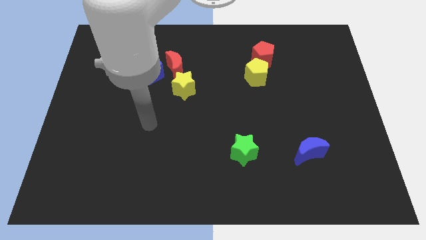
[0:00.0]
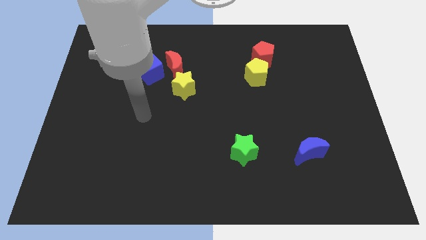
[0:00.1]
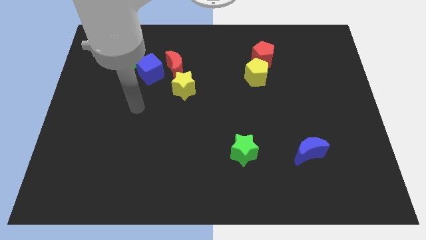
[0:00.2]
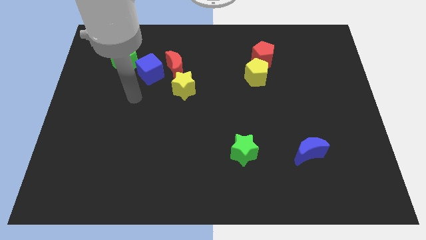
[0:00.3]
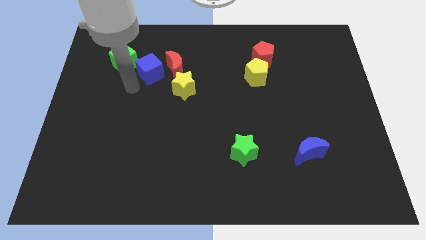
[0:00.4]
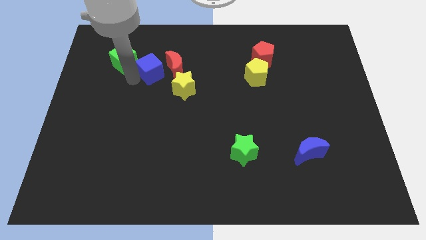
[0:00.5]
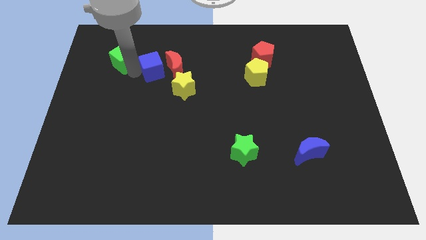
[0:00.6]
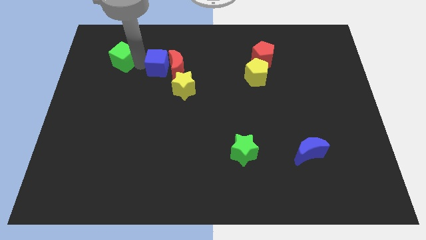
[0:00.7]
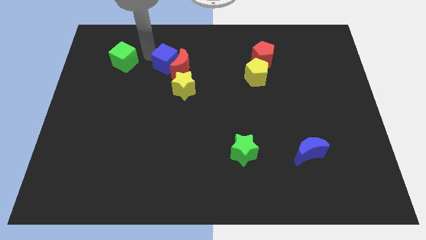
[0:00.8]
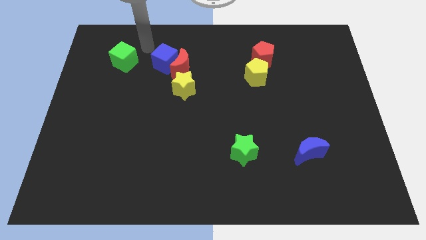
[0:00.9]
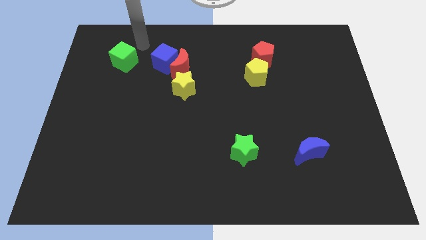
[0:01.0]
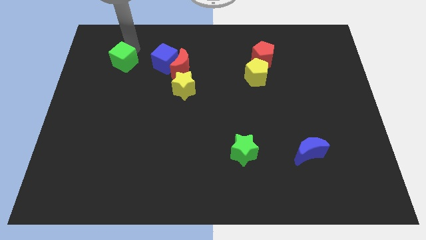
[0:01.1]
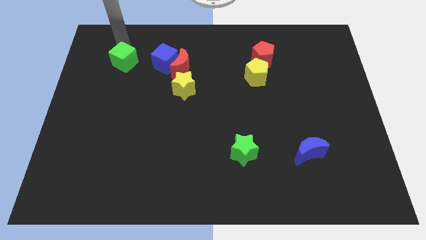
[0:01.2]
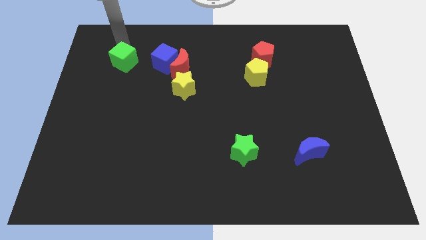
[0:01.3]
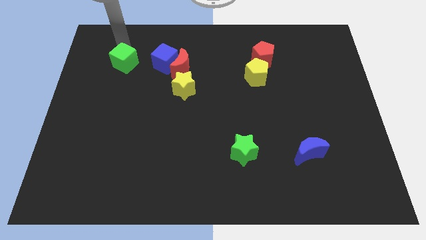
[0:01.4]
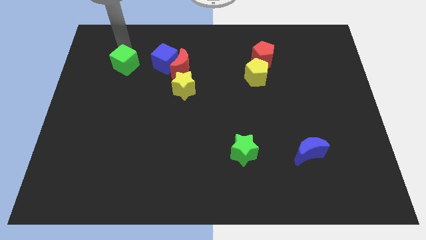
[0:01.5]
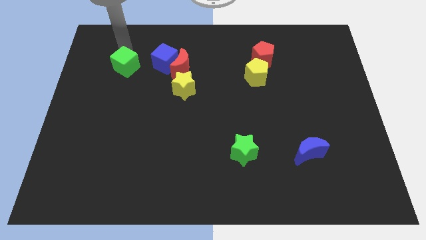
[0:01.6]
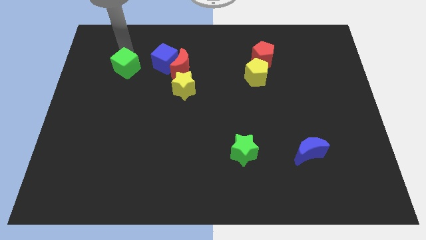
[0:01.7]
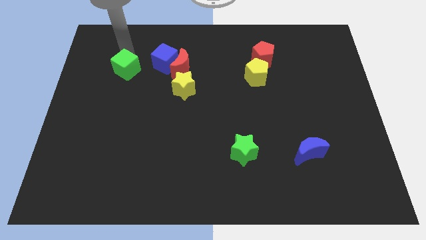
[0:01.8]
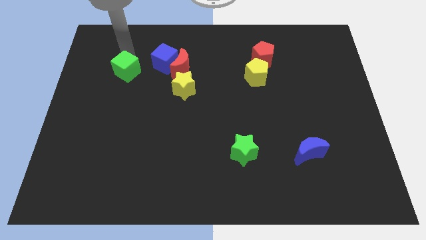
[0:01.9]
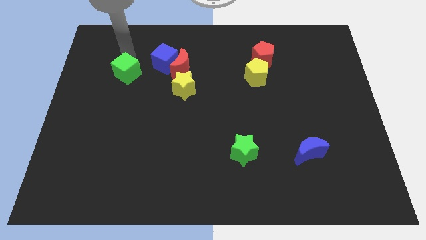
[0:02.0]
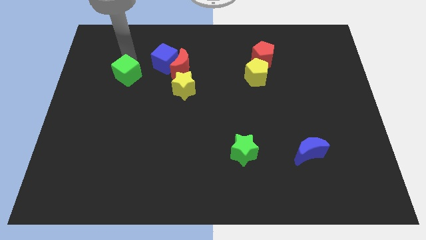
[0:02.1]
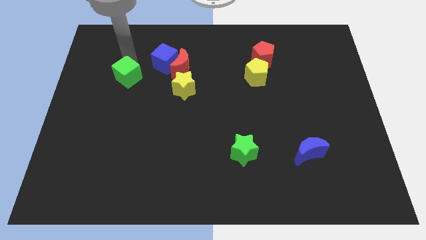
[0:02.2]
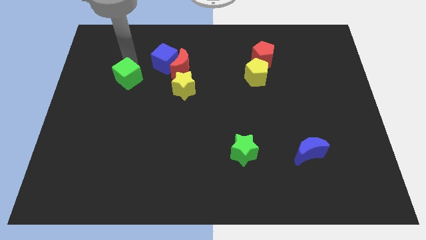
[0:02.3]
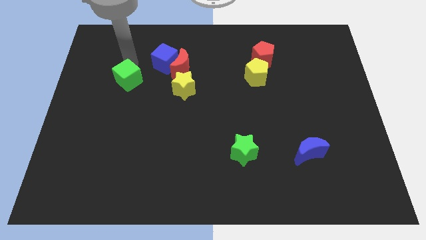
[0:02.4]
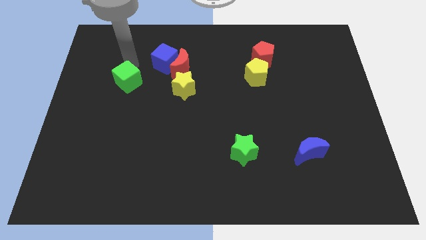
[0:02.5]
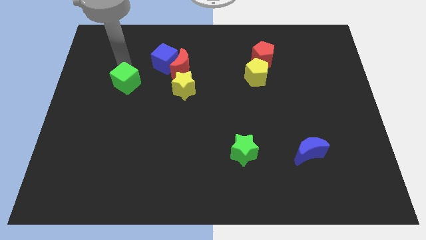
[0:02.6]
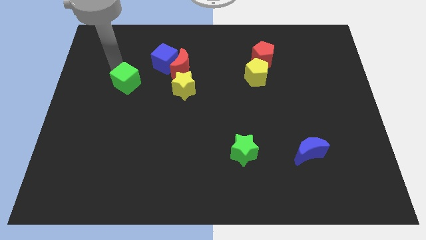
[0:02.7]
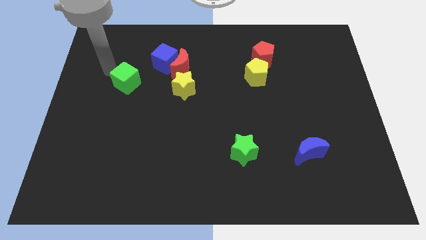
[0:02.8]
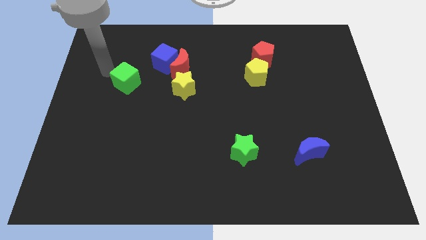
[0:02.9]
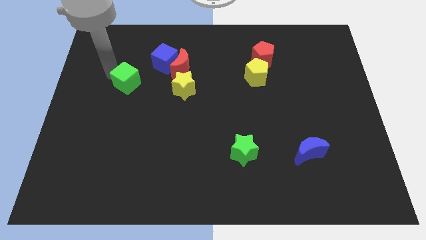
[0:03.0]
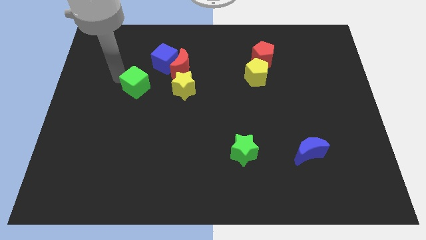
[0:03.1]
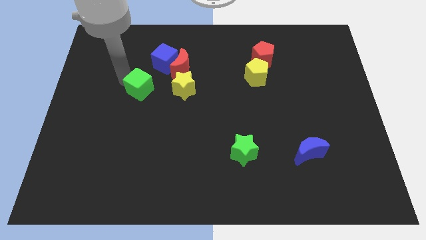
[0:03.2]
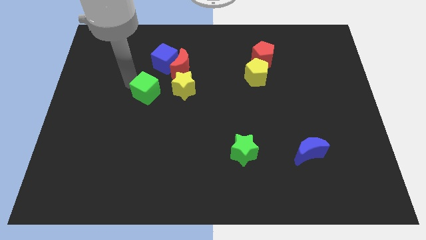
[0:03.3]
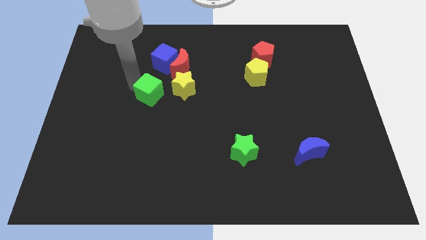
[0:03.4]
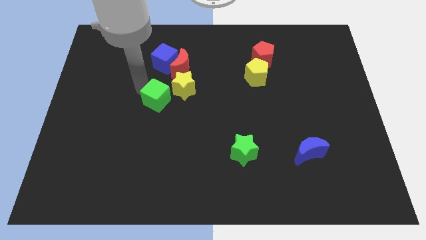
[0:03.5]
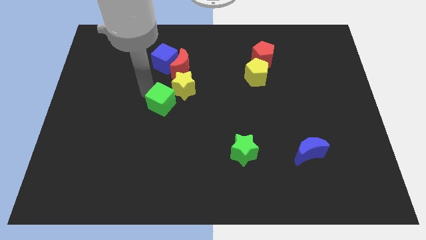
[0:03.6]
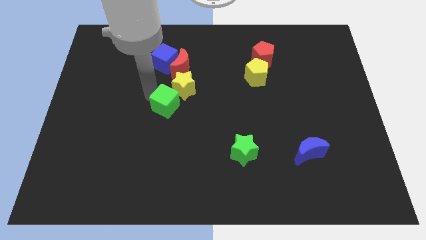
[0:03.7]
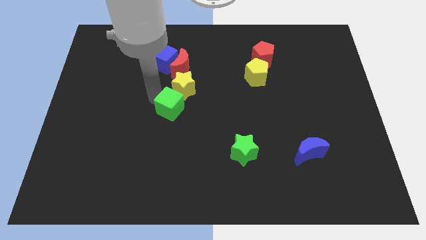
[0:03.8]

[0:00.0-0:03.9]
push the green cube downwards and right diagonally

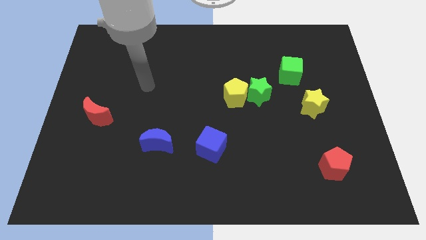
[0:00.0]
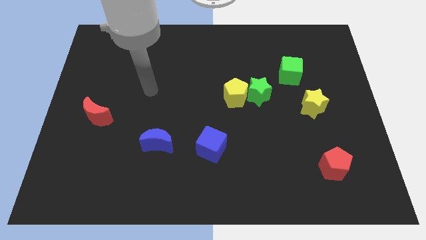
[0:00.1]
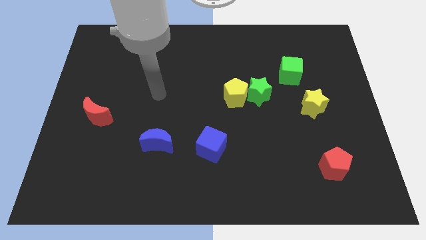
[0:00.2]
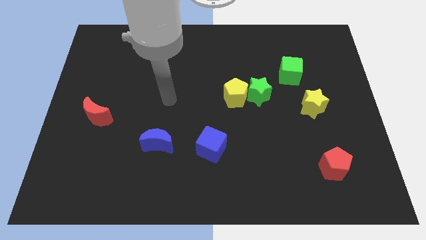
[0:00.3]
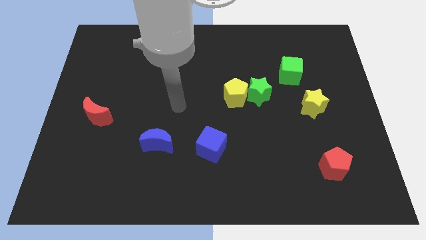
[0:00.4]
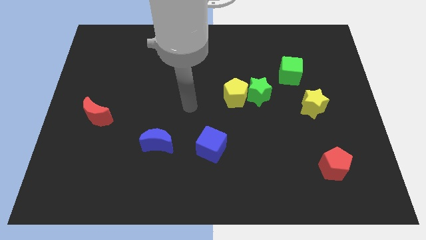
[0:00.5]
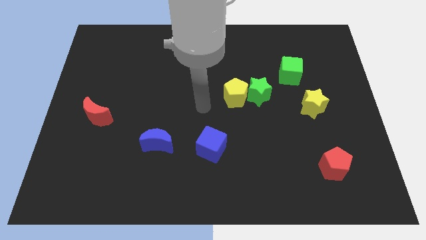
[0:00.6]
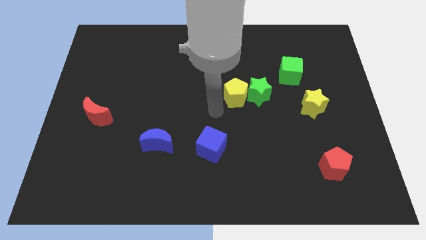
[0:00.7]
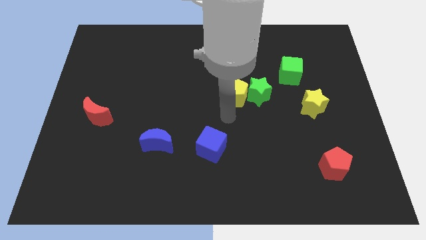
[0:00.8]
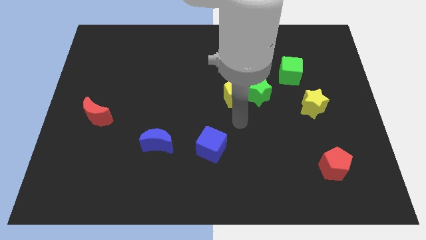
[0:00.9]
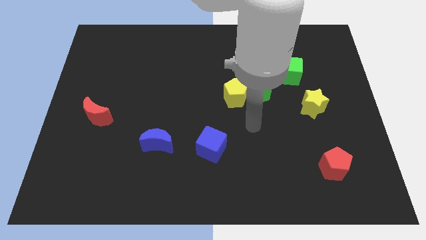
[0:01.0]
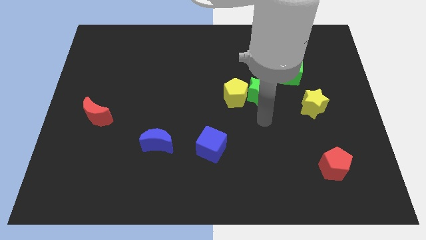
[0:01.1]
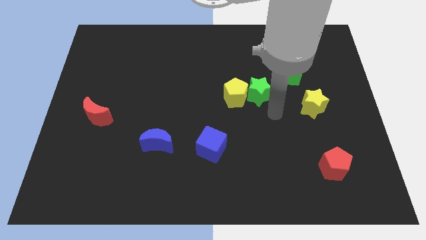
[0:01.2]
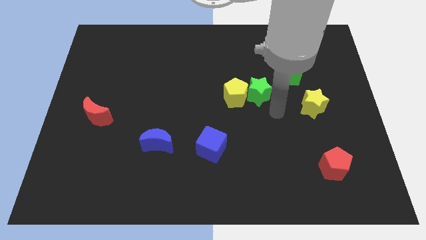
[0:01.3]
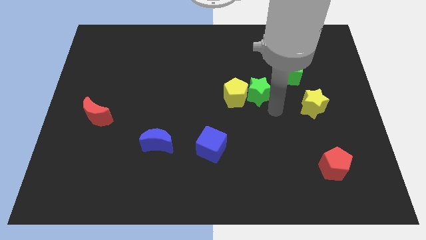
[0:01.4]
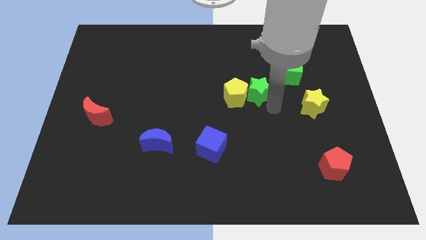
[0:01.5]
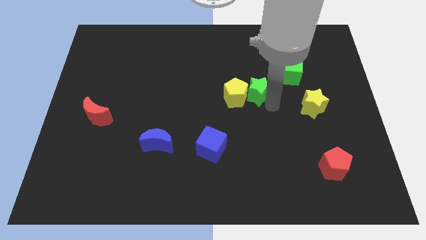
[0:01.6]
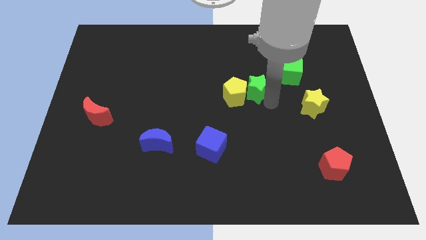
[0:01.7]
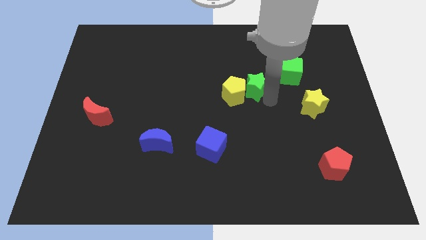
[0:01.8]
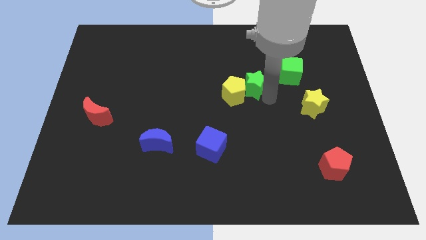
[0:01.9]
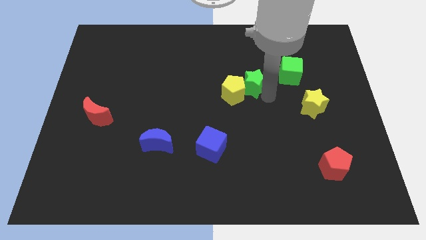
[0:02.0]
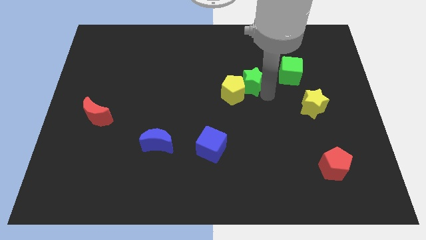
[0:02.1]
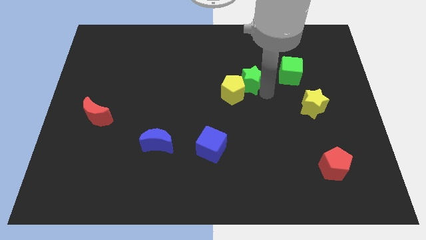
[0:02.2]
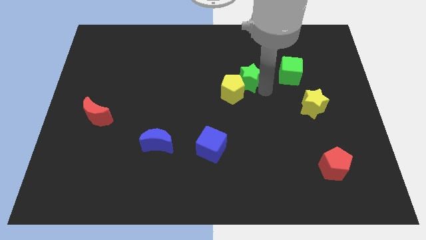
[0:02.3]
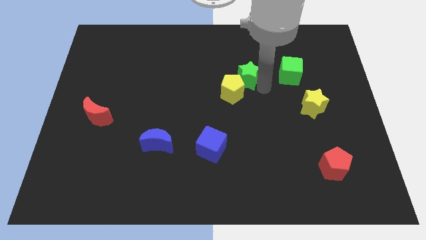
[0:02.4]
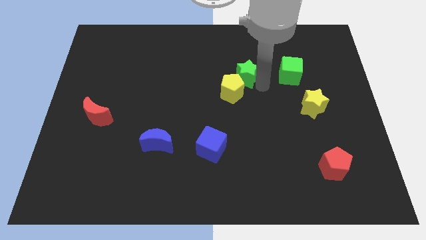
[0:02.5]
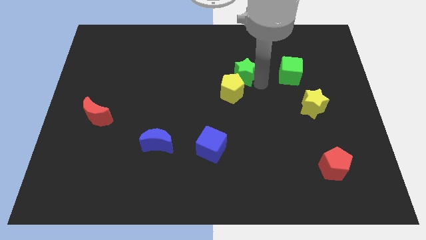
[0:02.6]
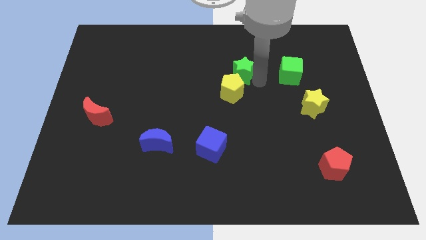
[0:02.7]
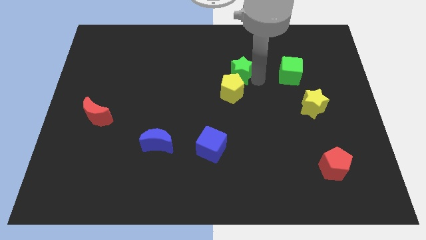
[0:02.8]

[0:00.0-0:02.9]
slide the green star a bit diagonally upwards and left

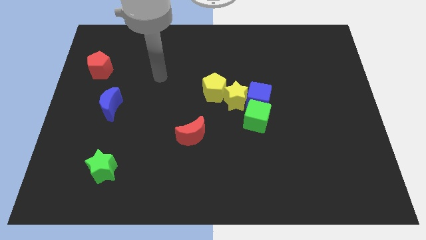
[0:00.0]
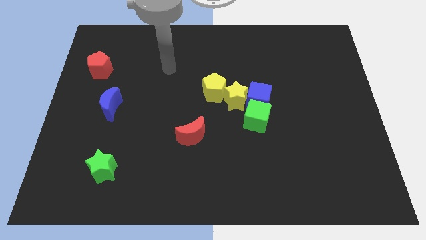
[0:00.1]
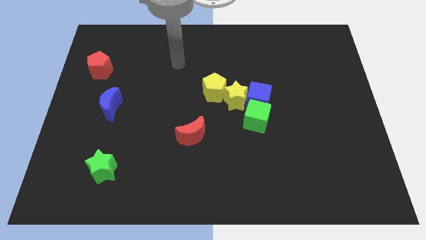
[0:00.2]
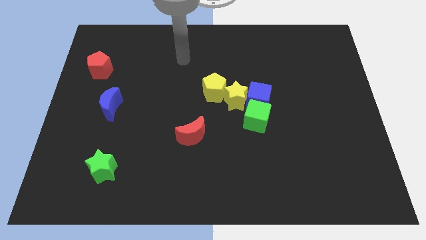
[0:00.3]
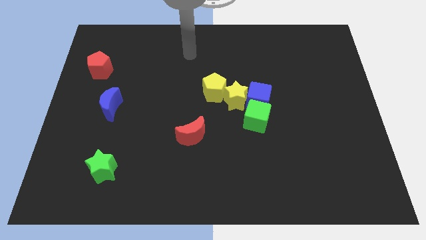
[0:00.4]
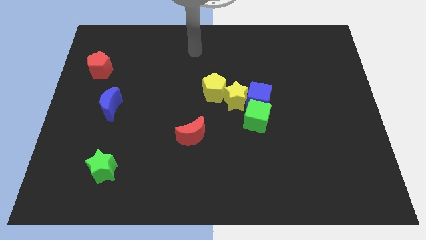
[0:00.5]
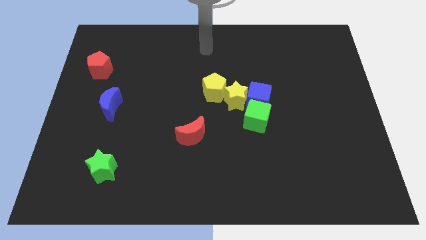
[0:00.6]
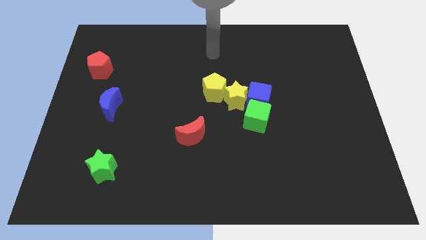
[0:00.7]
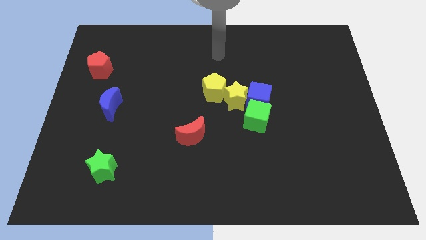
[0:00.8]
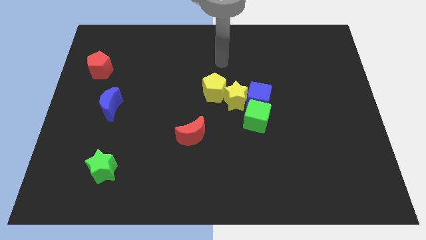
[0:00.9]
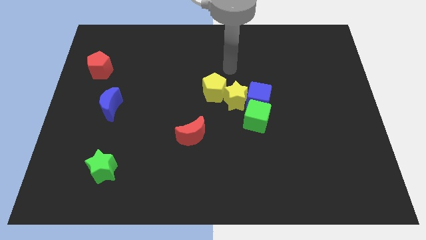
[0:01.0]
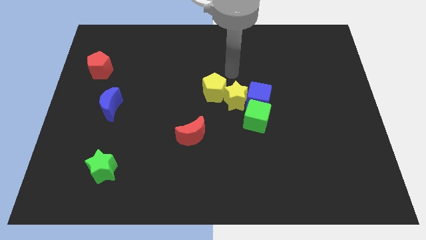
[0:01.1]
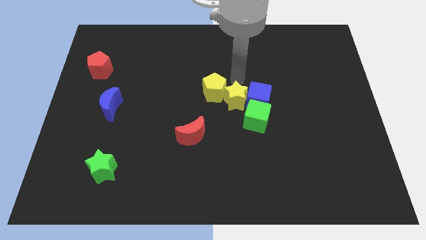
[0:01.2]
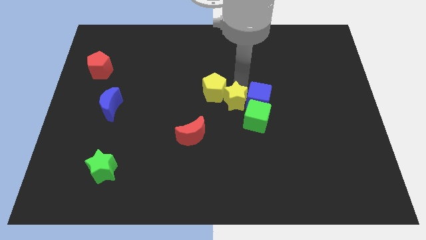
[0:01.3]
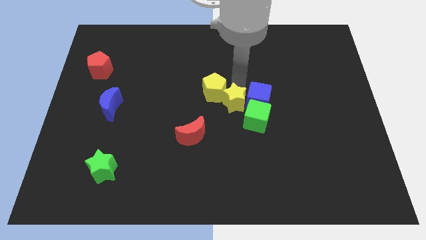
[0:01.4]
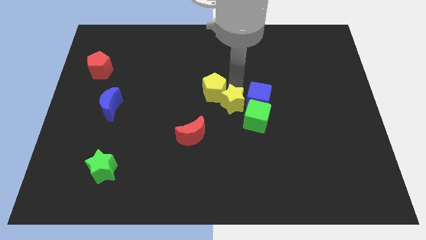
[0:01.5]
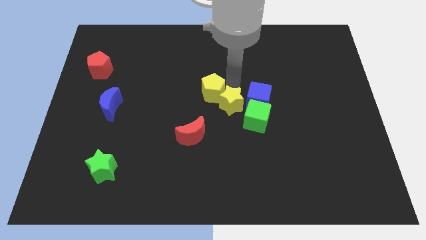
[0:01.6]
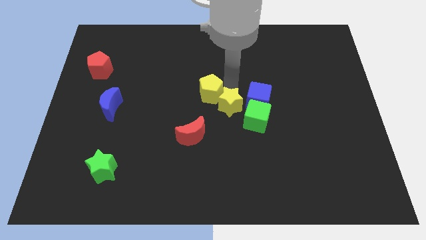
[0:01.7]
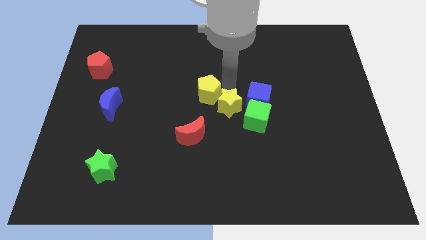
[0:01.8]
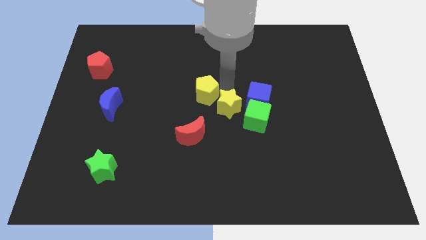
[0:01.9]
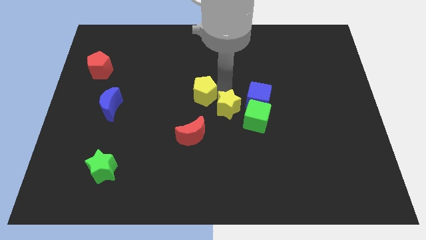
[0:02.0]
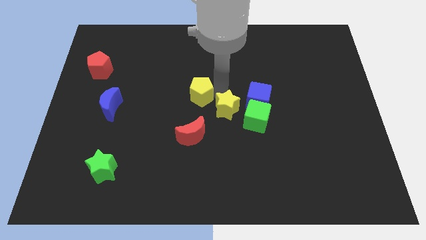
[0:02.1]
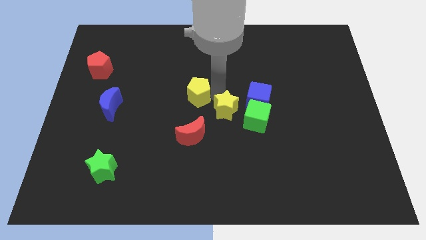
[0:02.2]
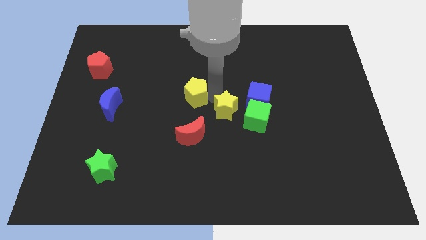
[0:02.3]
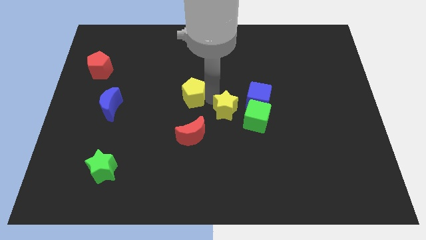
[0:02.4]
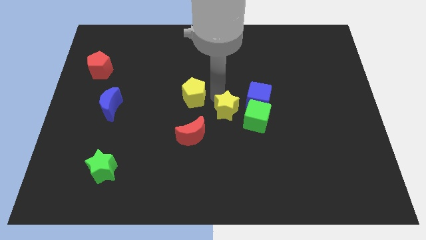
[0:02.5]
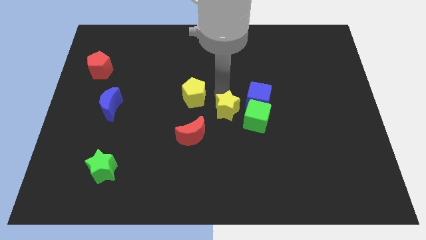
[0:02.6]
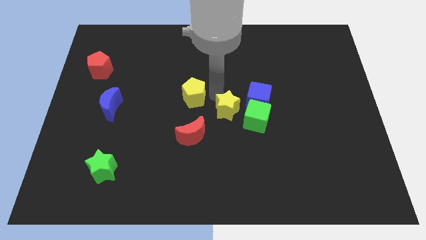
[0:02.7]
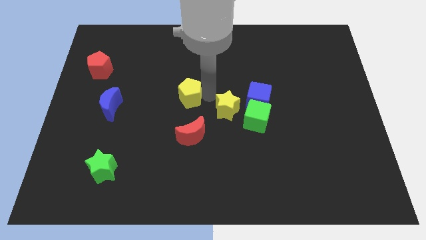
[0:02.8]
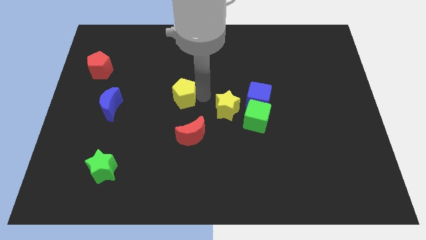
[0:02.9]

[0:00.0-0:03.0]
slide the yellow pentagon slightly left
